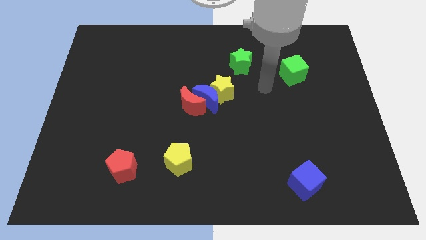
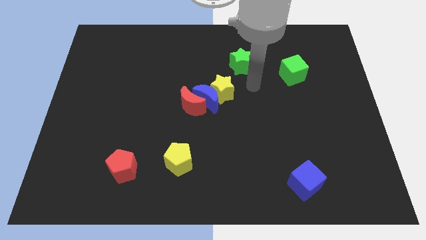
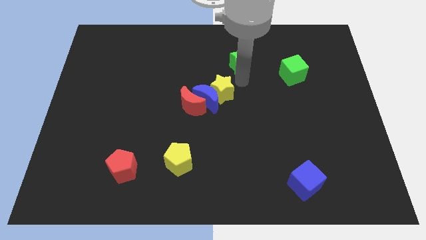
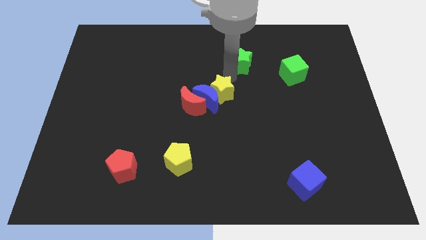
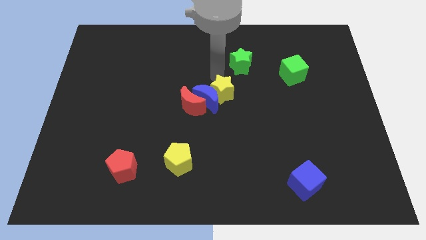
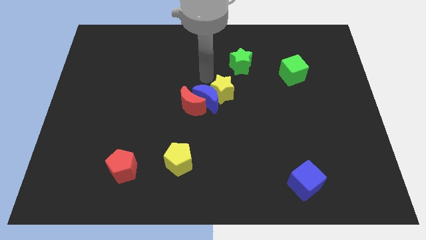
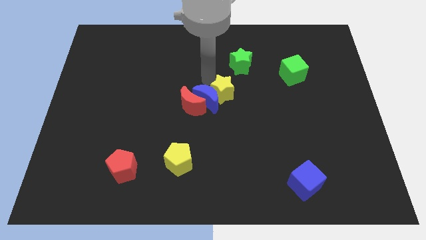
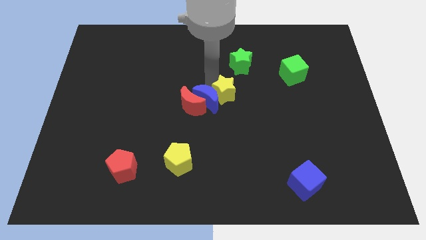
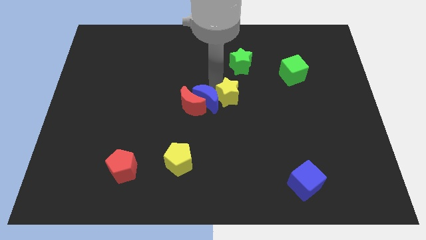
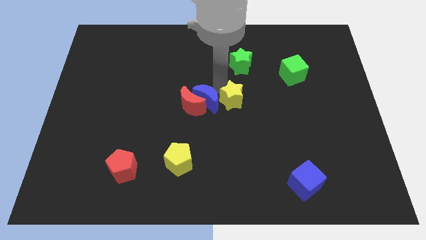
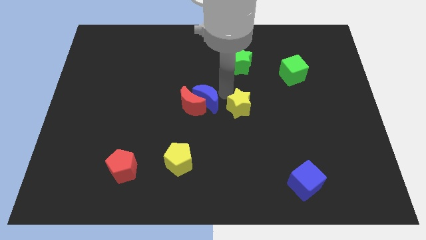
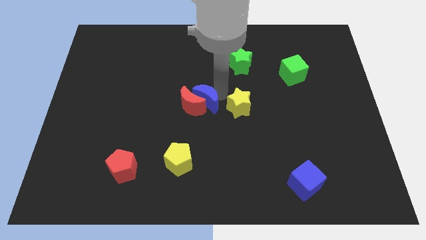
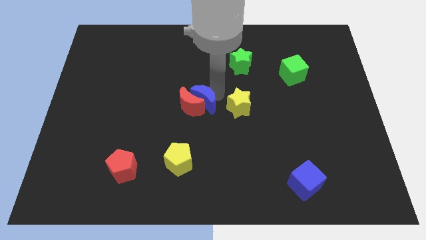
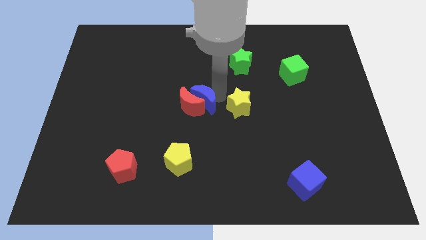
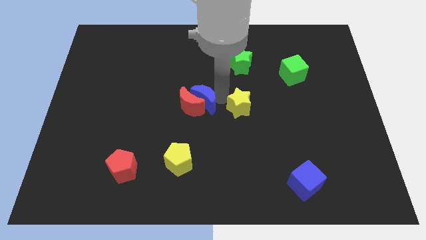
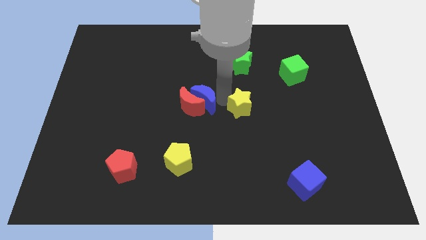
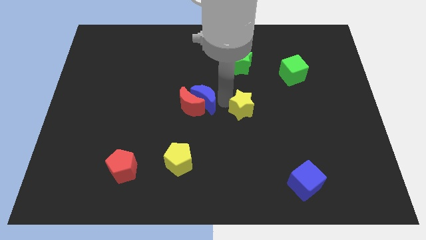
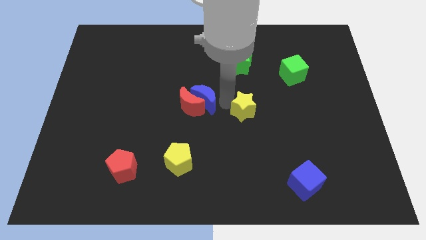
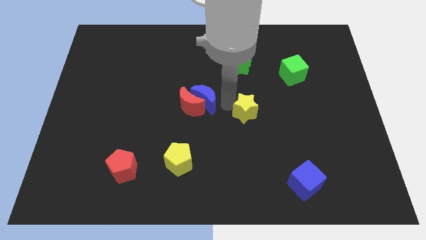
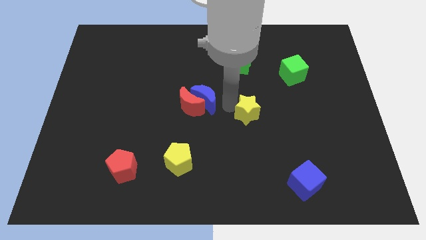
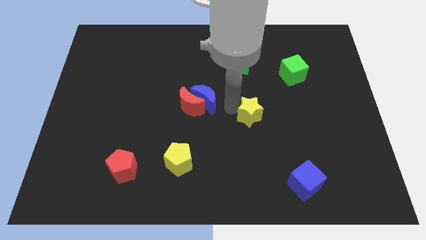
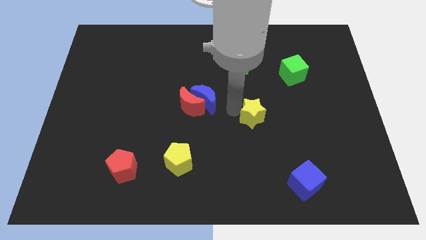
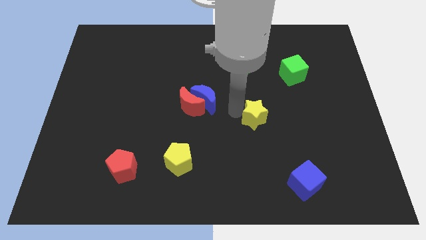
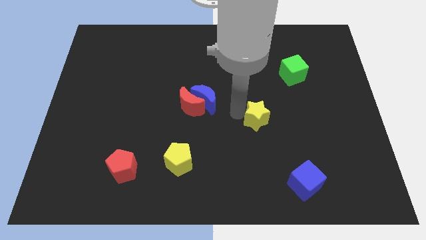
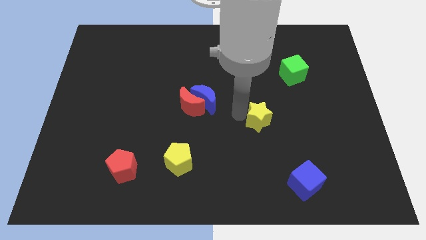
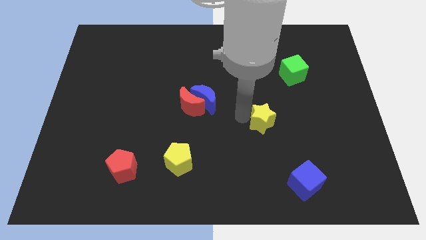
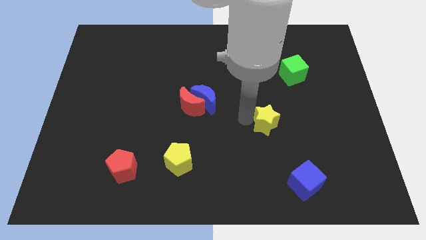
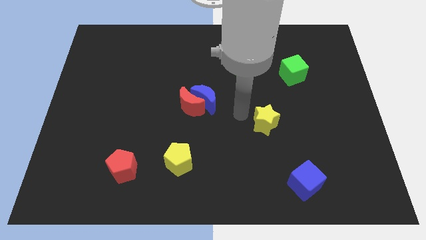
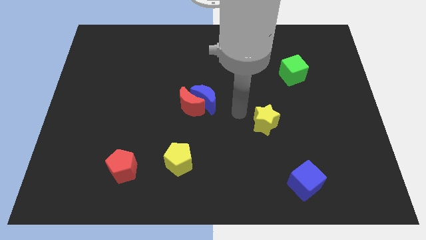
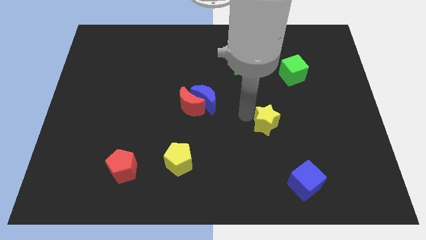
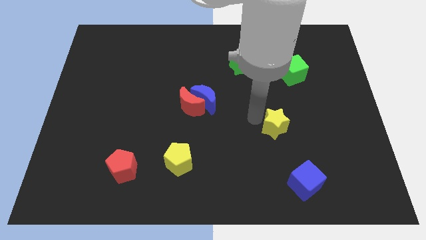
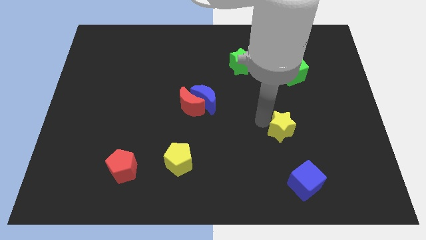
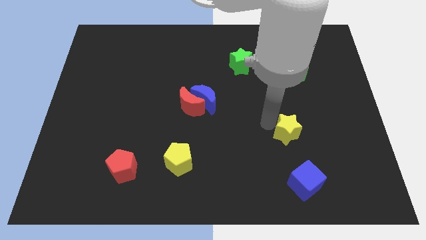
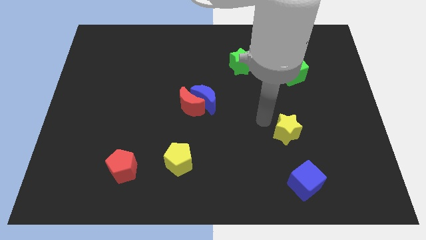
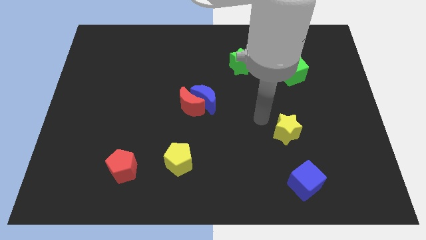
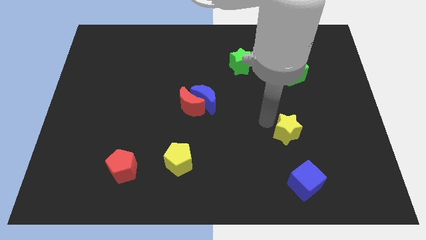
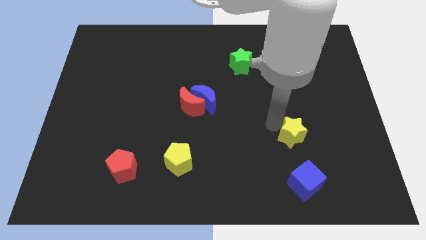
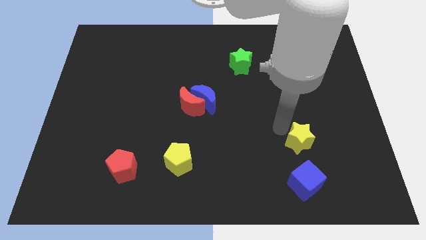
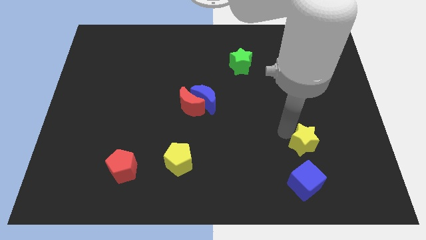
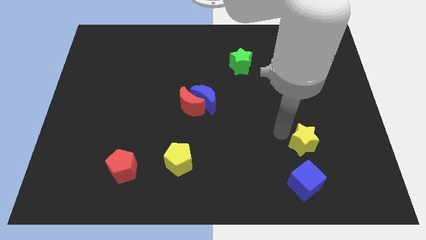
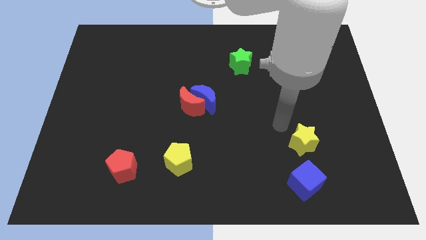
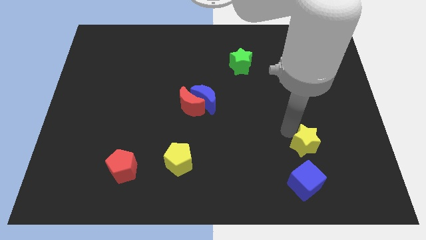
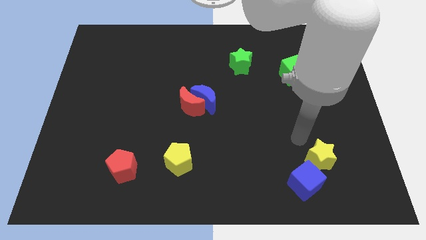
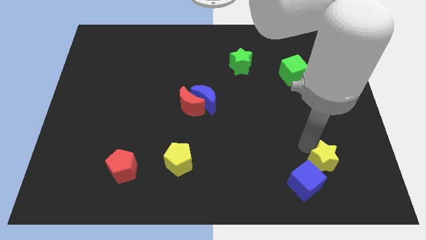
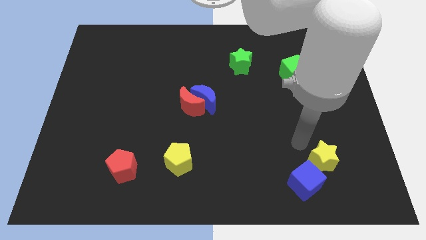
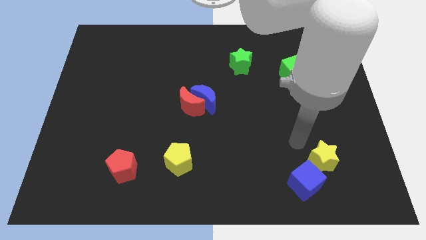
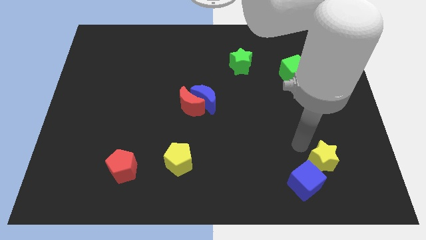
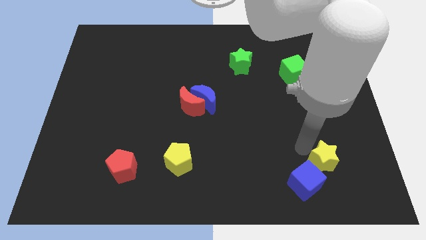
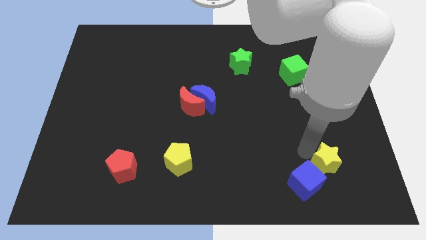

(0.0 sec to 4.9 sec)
push the yellow star to the right of the blue cube

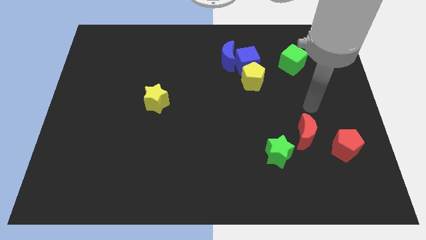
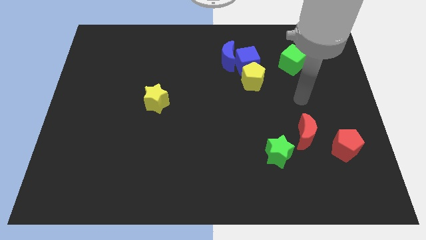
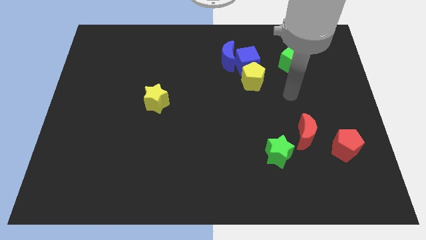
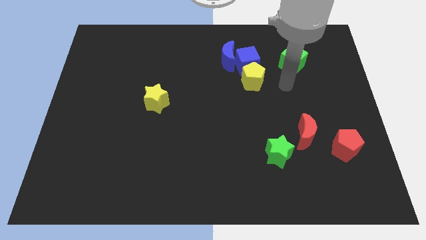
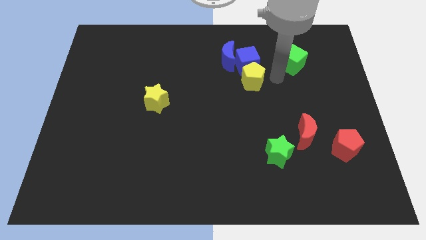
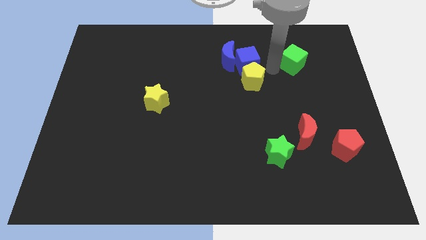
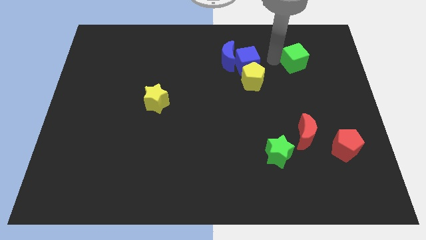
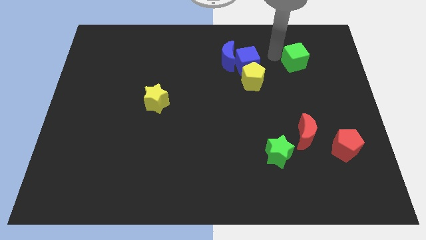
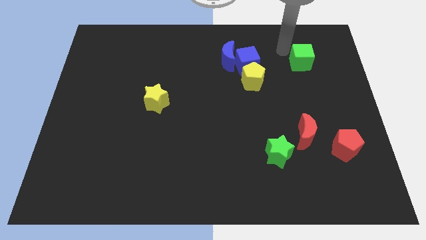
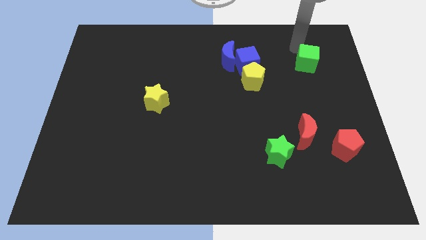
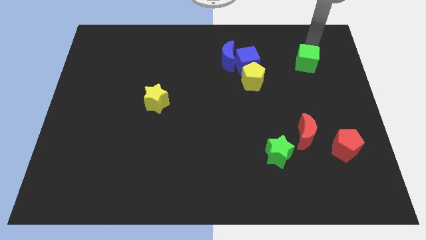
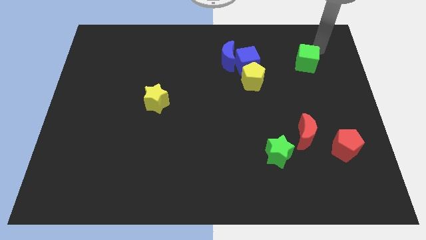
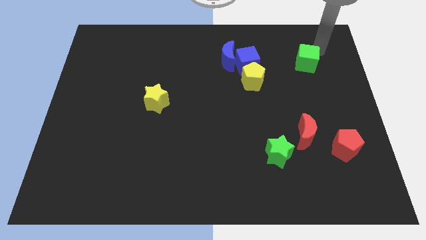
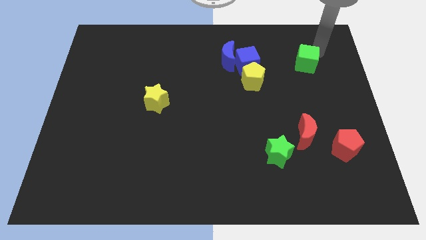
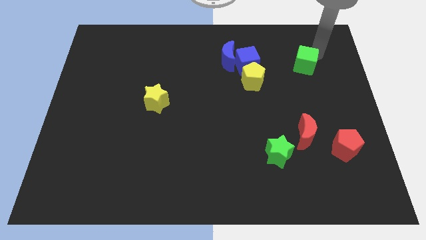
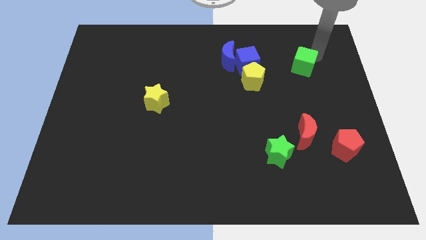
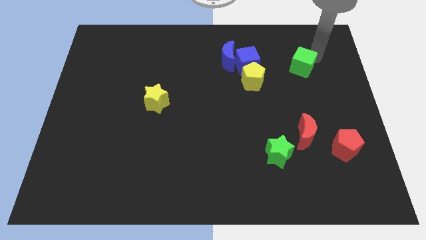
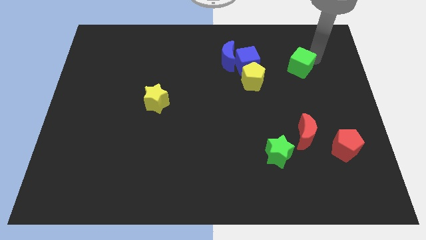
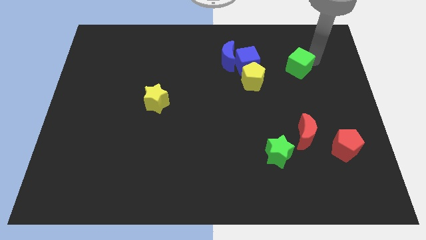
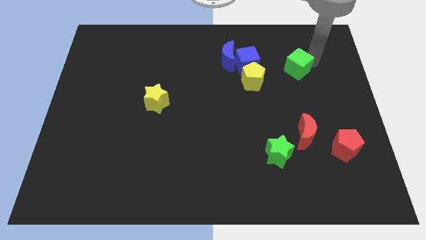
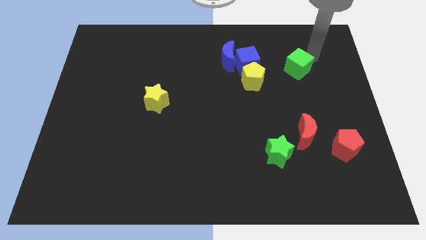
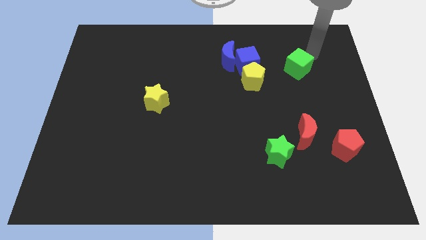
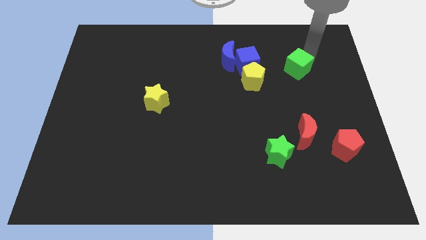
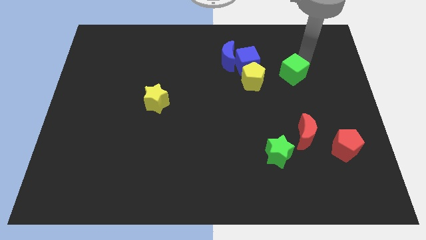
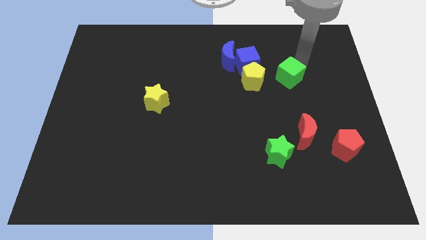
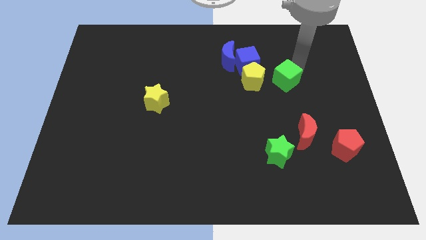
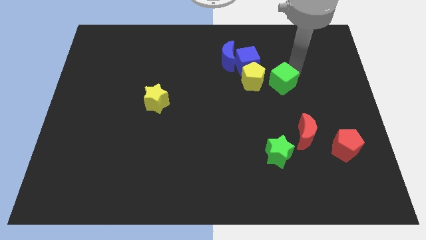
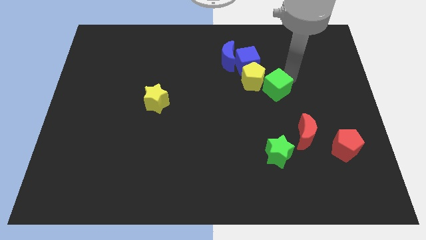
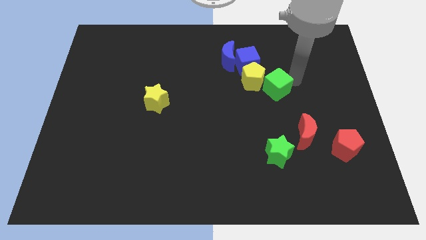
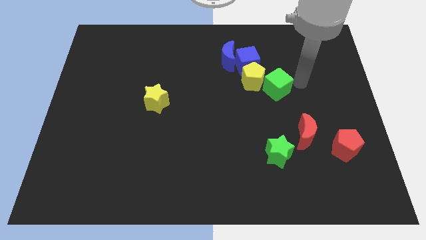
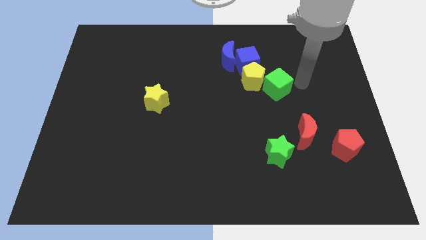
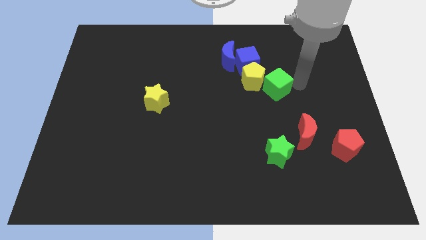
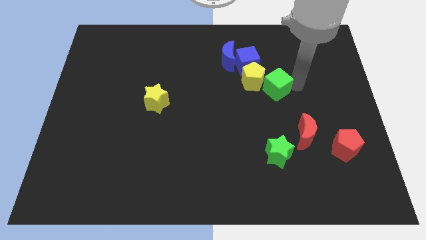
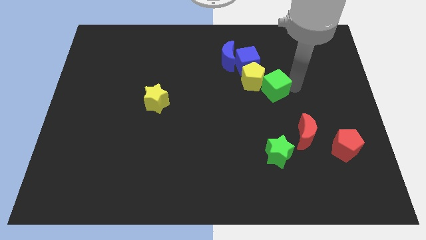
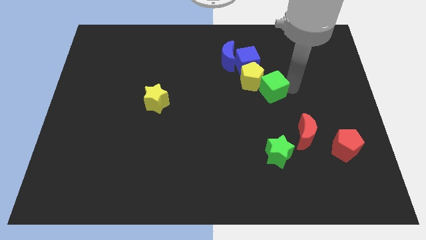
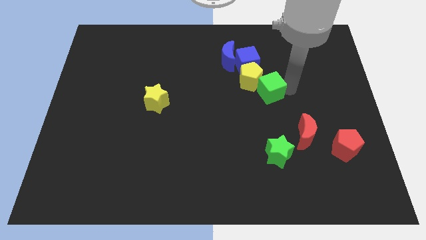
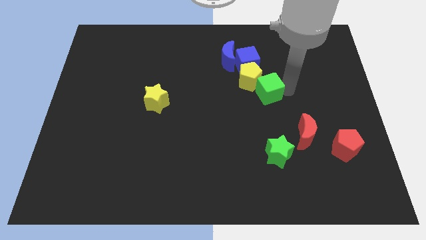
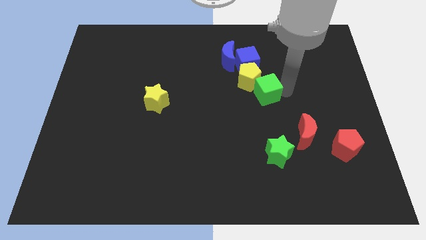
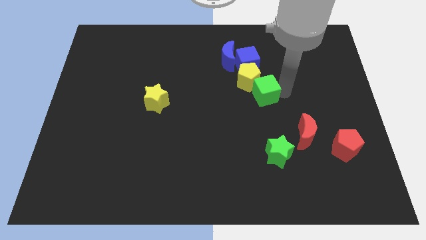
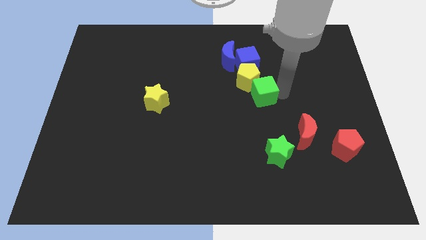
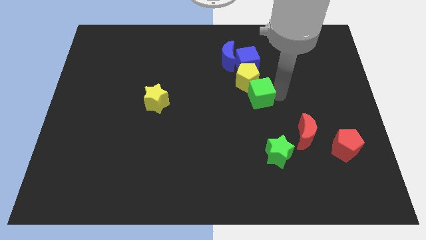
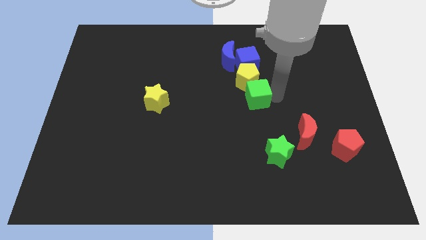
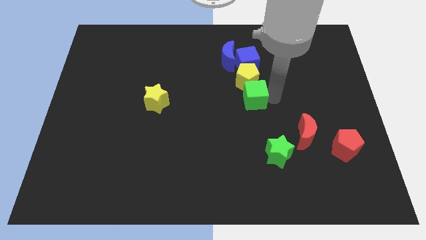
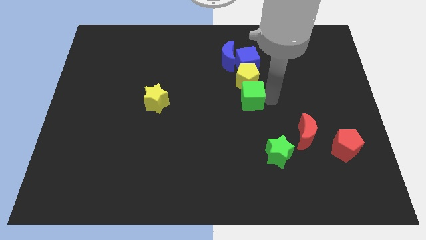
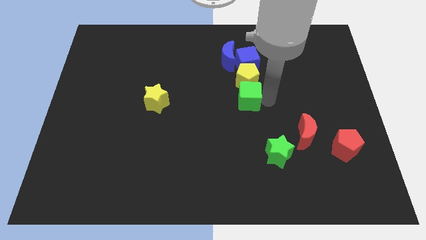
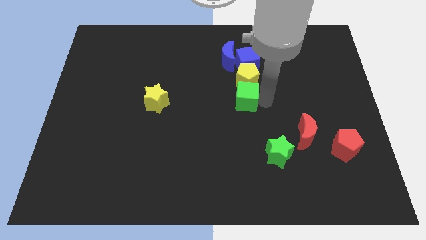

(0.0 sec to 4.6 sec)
move the green cube to the bottom side of the blue moon
